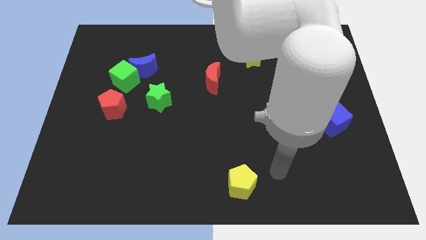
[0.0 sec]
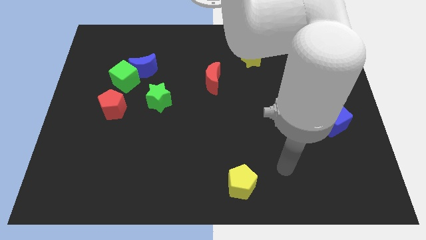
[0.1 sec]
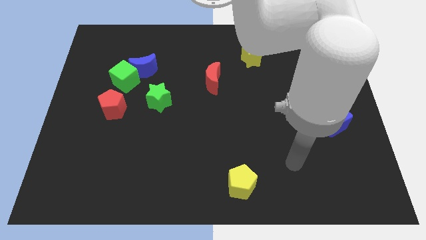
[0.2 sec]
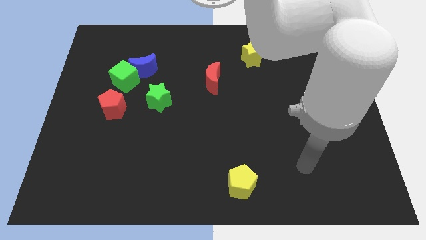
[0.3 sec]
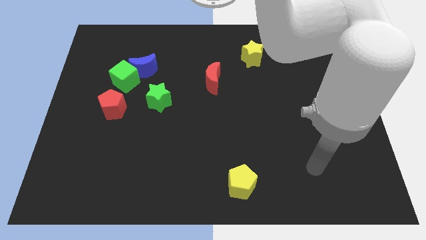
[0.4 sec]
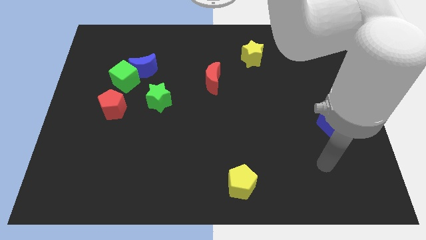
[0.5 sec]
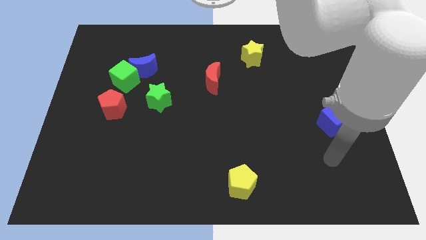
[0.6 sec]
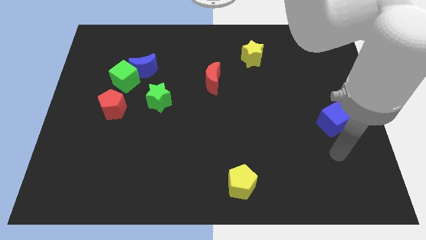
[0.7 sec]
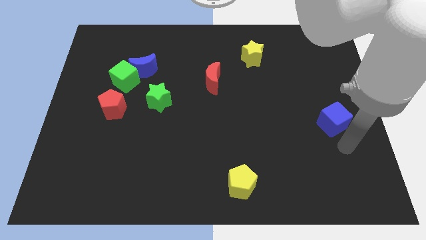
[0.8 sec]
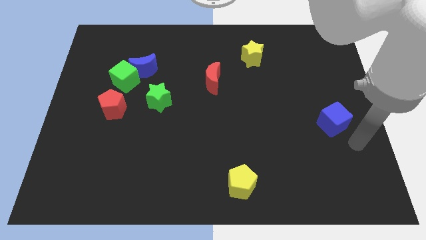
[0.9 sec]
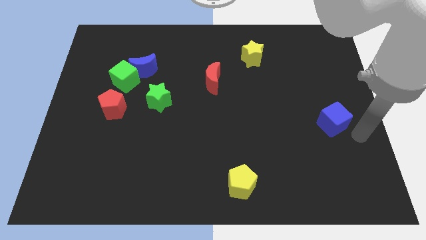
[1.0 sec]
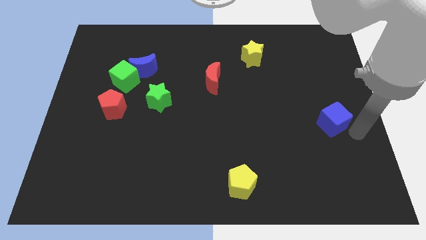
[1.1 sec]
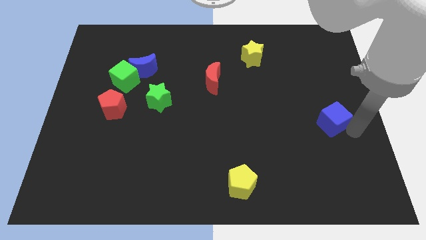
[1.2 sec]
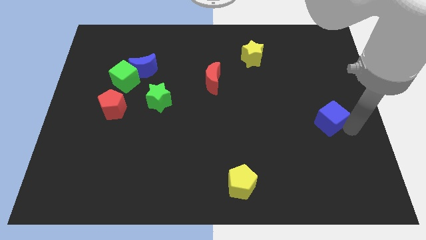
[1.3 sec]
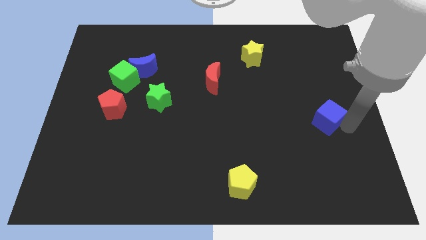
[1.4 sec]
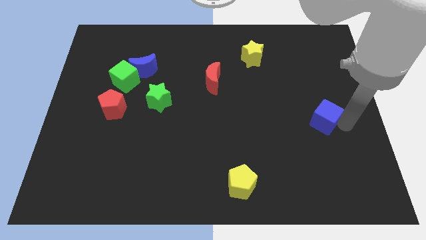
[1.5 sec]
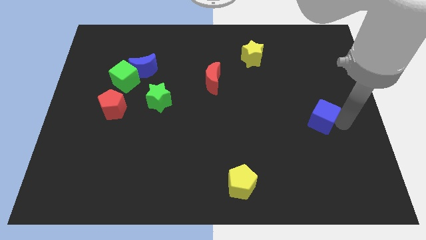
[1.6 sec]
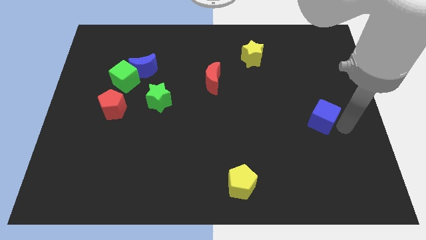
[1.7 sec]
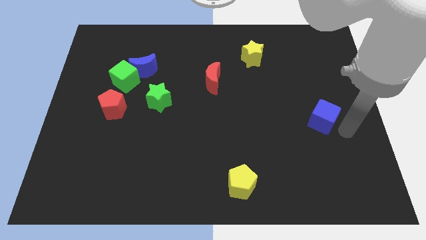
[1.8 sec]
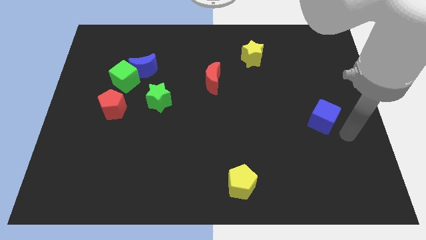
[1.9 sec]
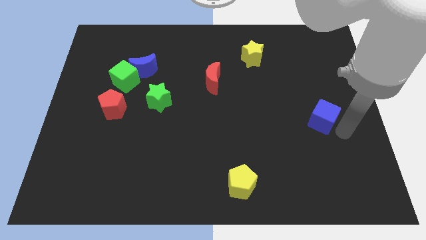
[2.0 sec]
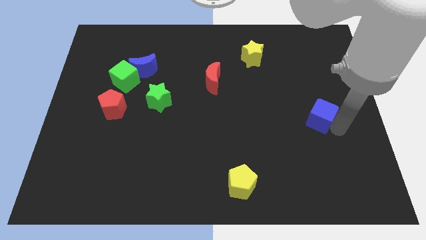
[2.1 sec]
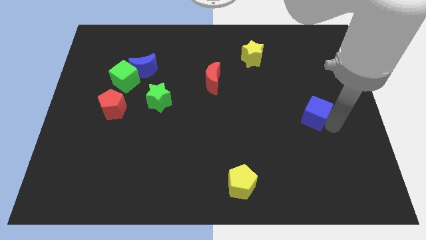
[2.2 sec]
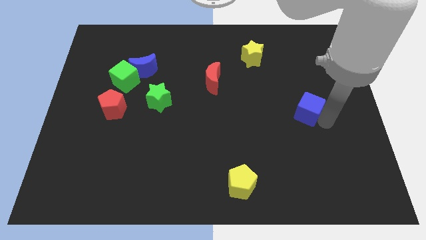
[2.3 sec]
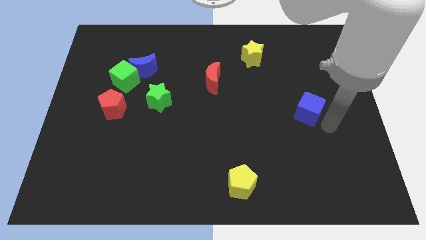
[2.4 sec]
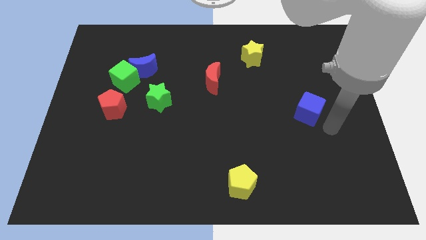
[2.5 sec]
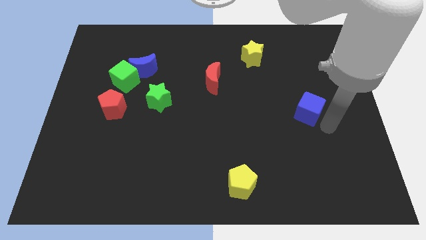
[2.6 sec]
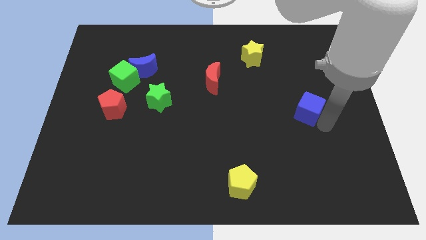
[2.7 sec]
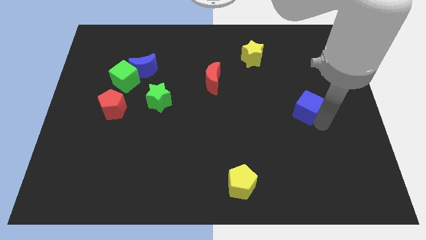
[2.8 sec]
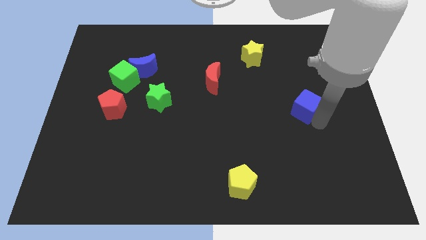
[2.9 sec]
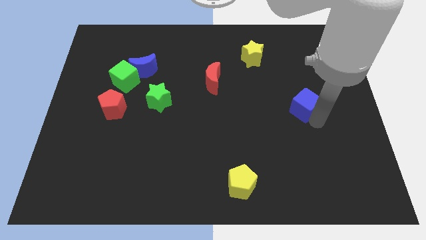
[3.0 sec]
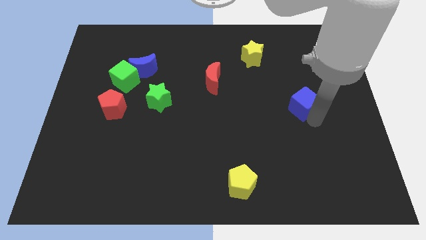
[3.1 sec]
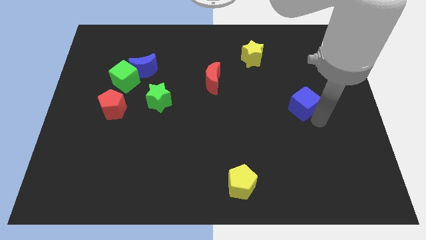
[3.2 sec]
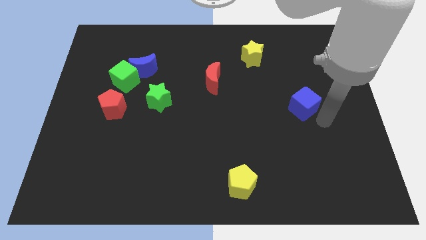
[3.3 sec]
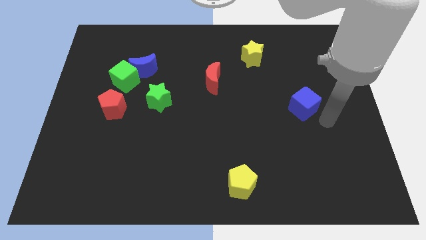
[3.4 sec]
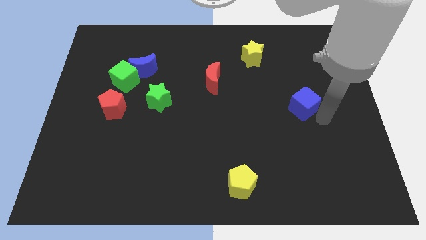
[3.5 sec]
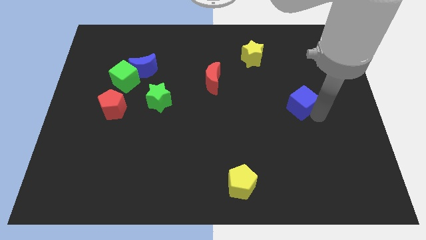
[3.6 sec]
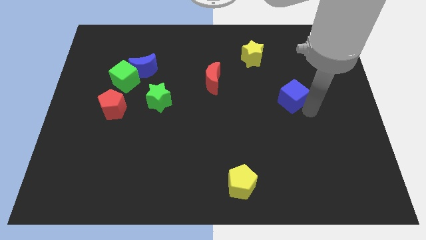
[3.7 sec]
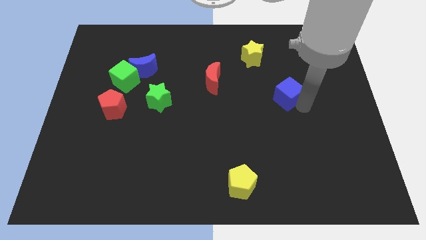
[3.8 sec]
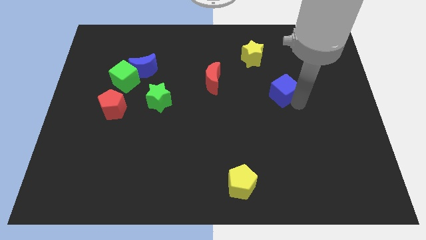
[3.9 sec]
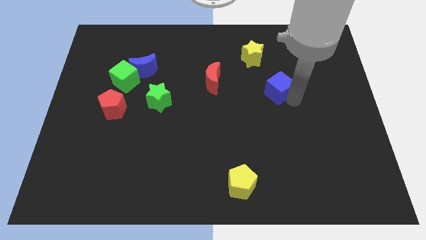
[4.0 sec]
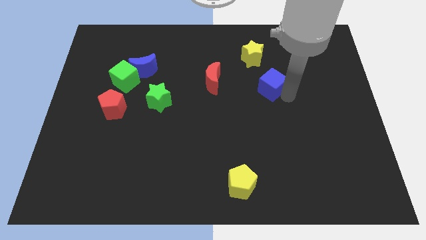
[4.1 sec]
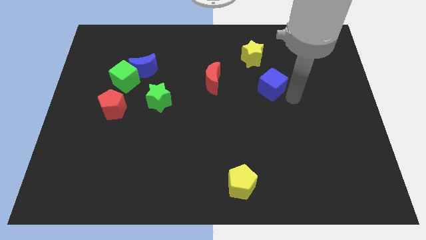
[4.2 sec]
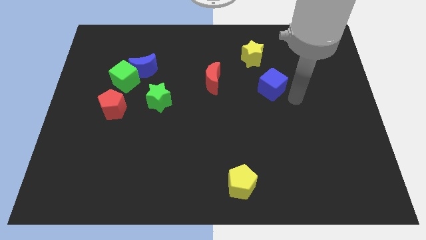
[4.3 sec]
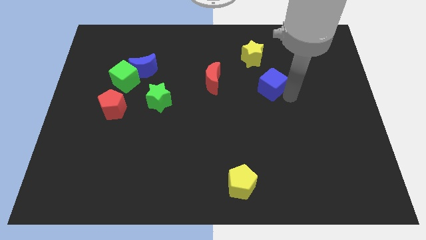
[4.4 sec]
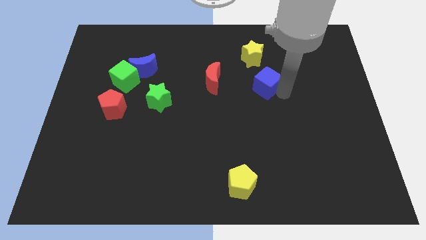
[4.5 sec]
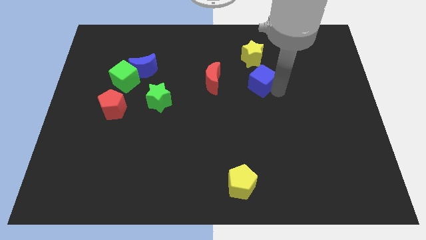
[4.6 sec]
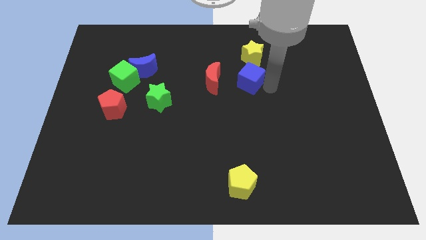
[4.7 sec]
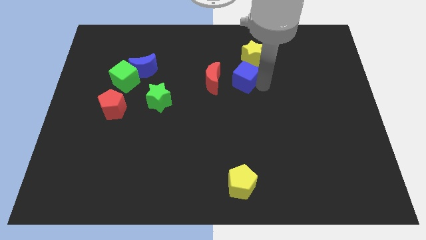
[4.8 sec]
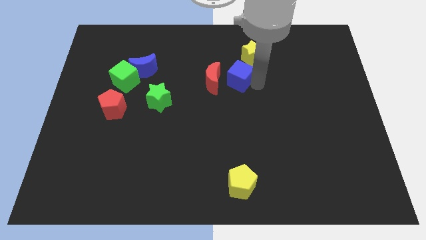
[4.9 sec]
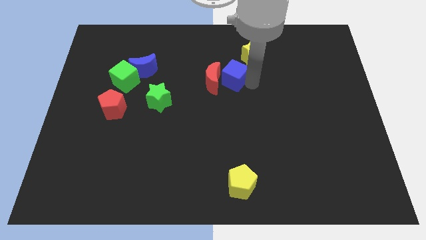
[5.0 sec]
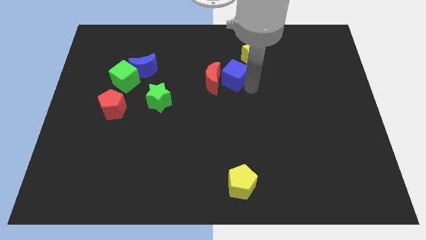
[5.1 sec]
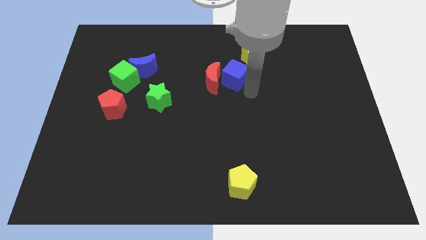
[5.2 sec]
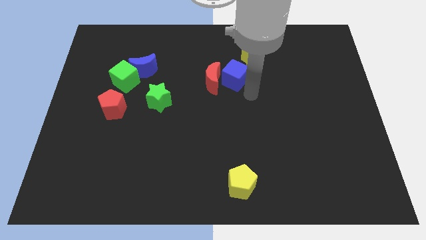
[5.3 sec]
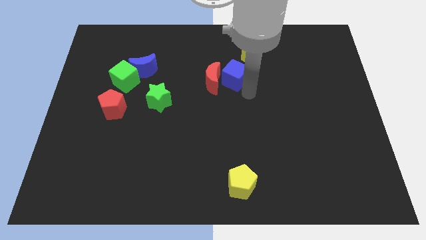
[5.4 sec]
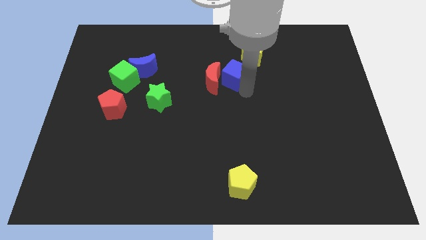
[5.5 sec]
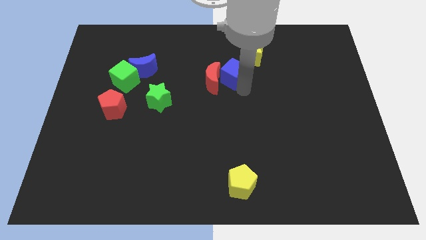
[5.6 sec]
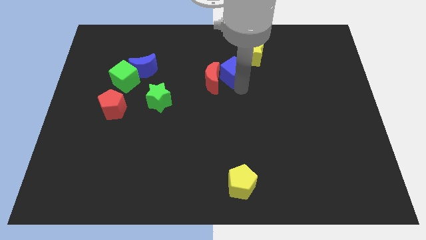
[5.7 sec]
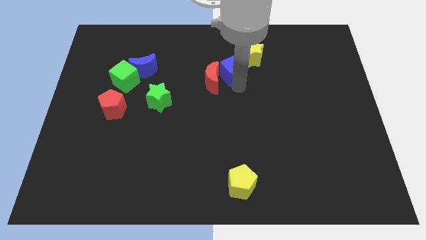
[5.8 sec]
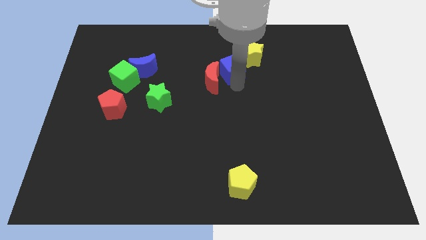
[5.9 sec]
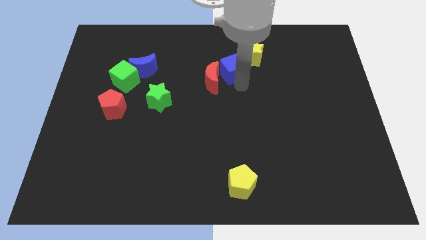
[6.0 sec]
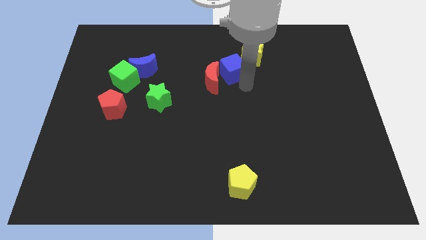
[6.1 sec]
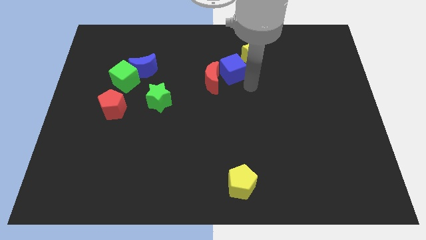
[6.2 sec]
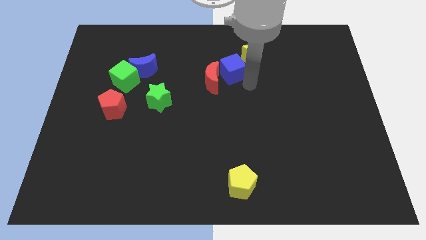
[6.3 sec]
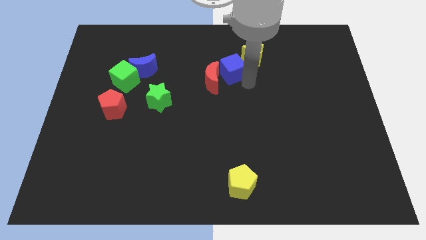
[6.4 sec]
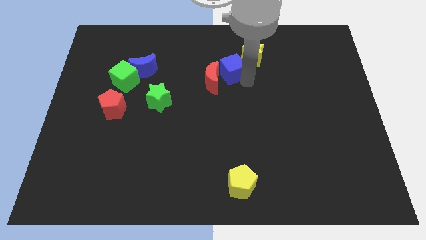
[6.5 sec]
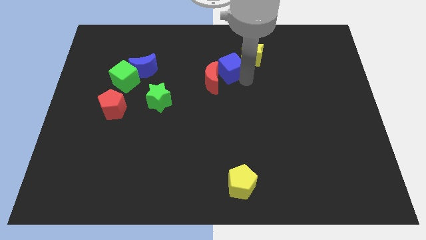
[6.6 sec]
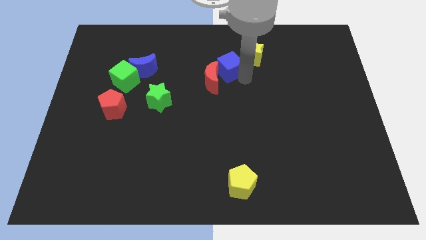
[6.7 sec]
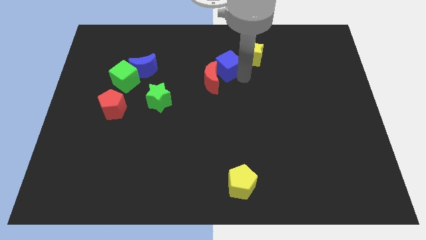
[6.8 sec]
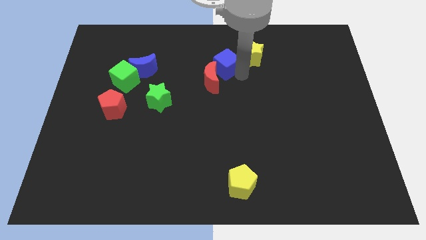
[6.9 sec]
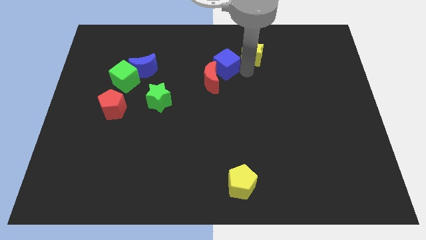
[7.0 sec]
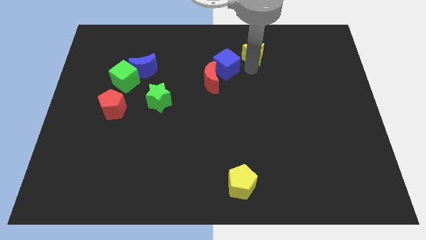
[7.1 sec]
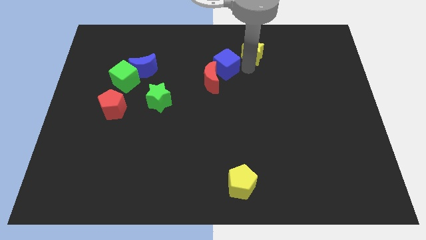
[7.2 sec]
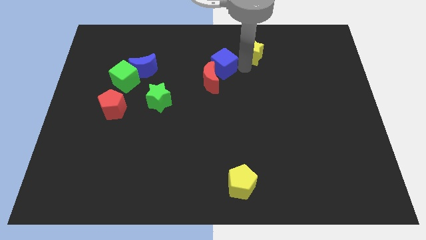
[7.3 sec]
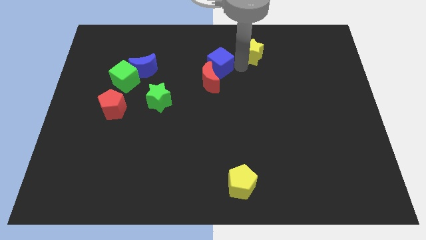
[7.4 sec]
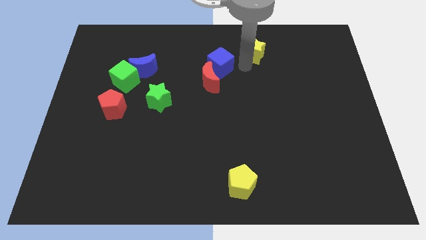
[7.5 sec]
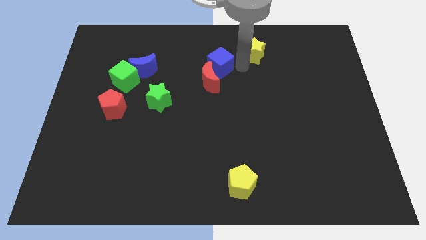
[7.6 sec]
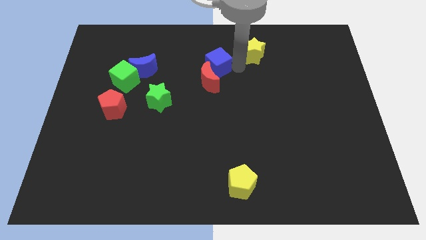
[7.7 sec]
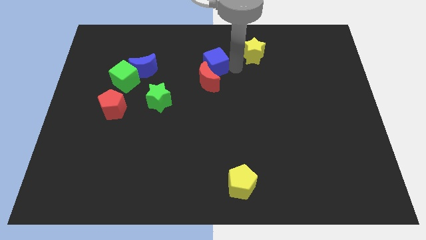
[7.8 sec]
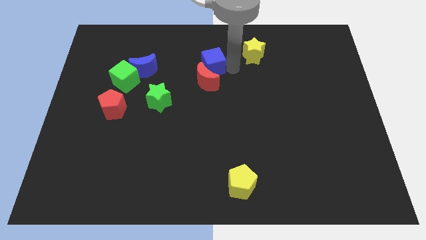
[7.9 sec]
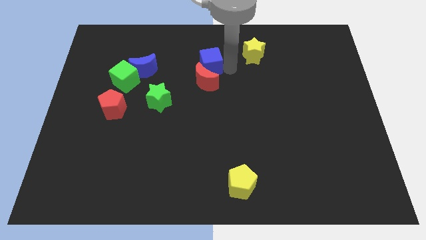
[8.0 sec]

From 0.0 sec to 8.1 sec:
move the blue cube diagonally up and to the left of the red moon
